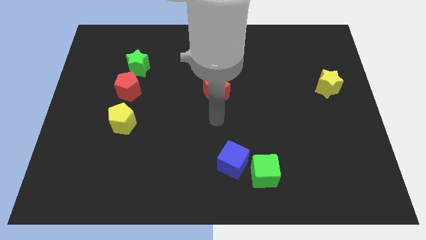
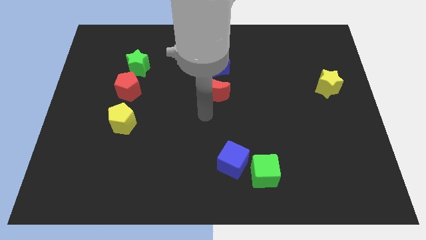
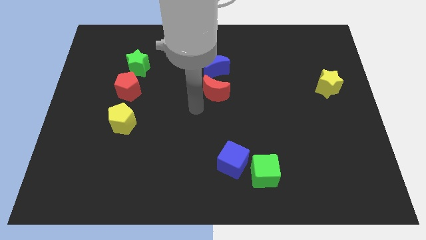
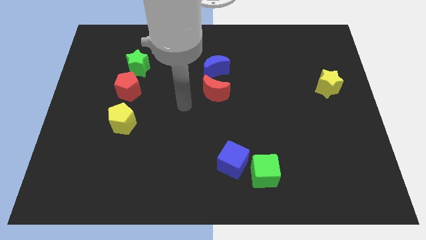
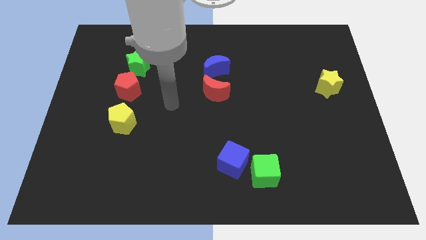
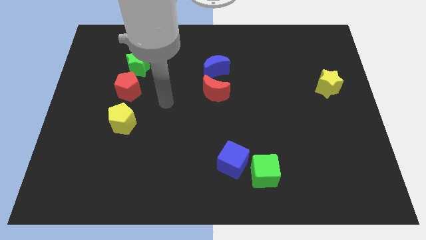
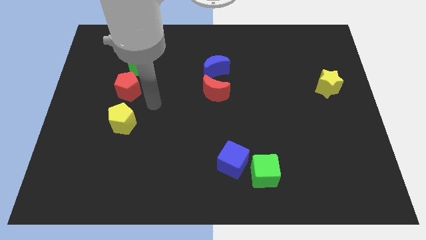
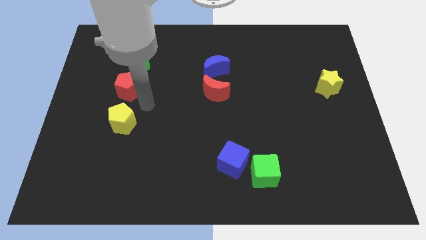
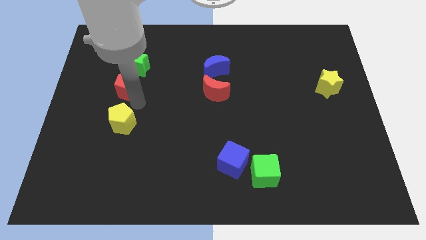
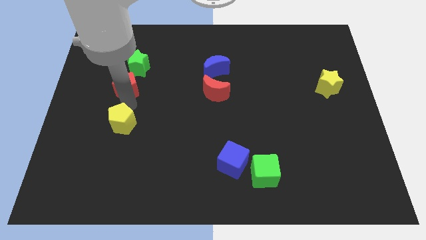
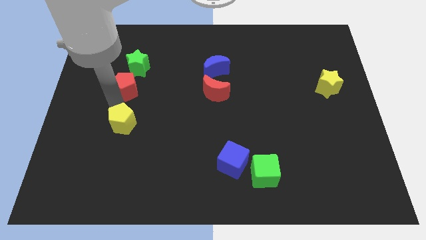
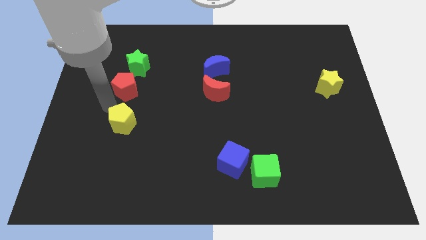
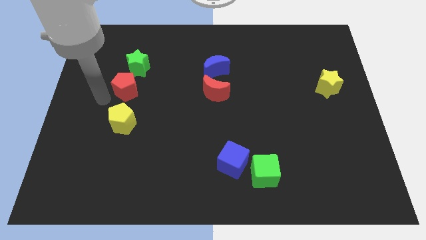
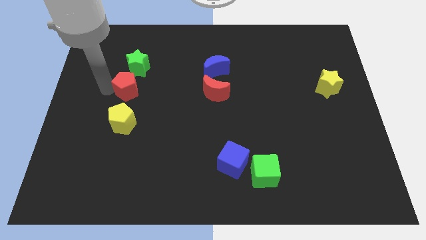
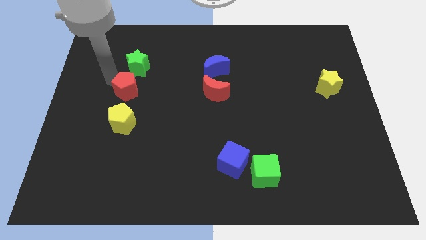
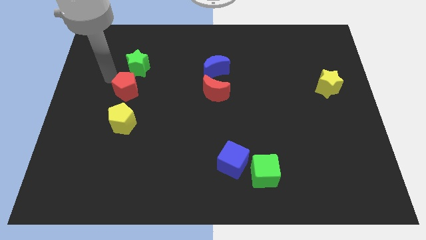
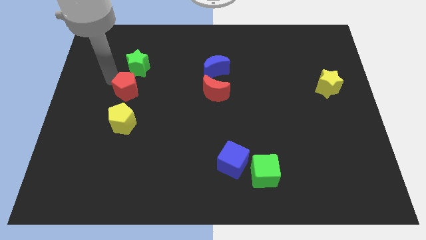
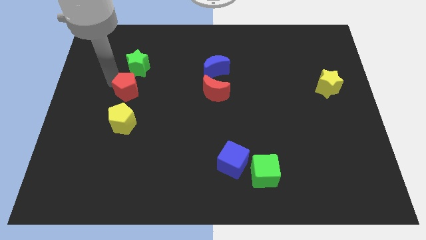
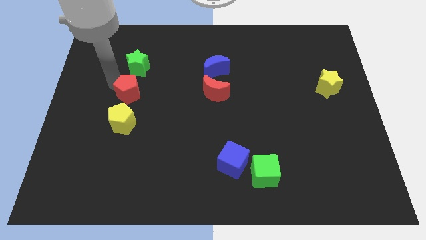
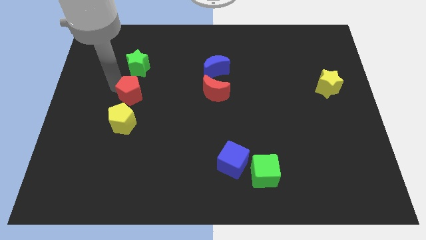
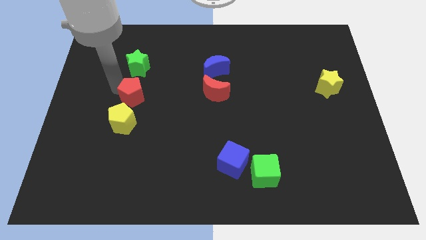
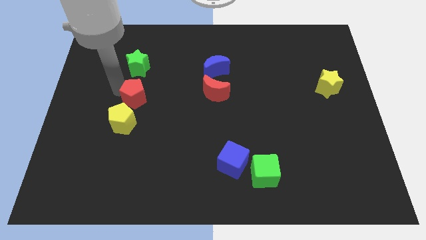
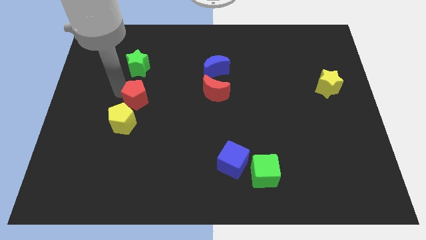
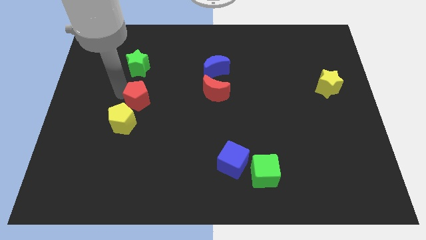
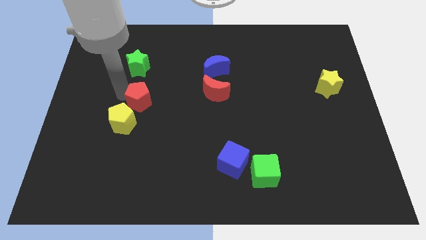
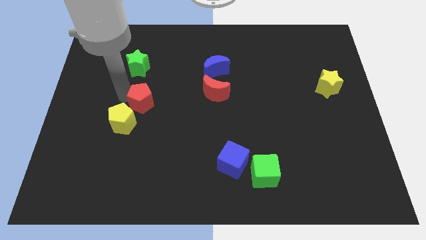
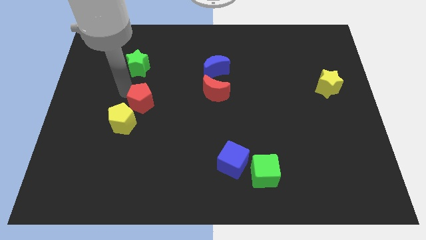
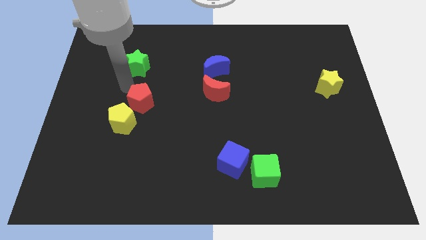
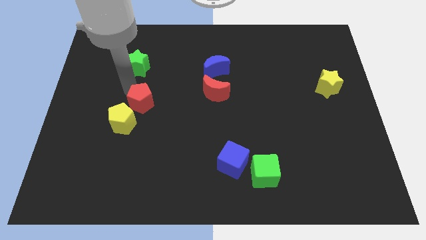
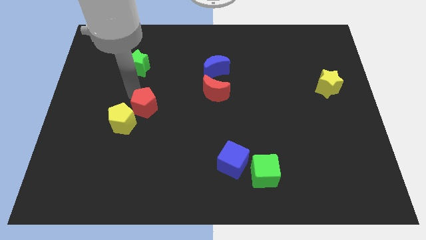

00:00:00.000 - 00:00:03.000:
move the red pentagon slightly downwards and to the right

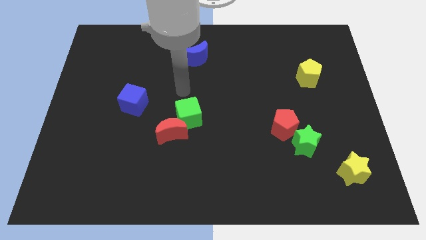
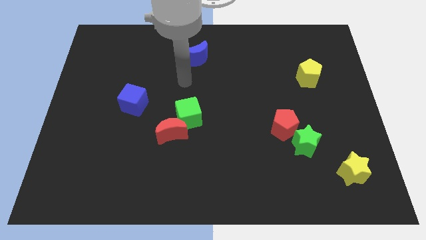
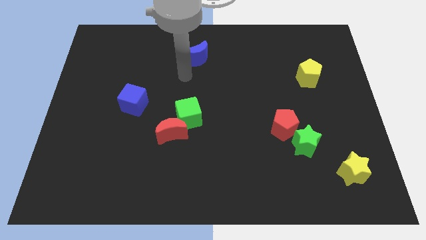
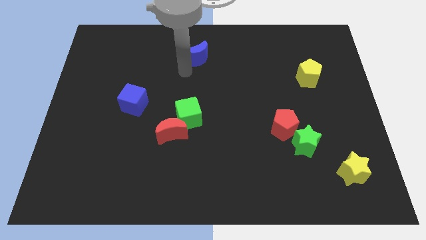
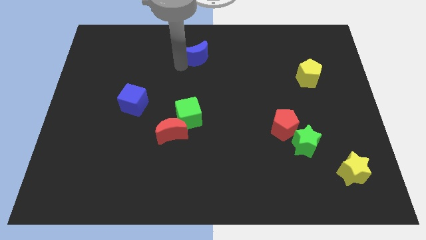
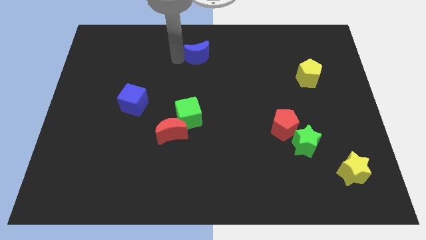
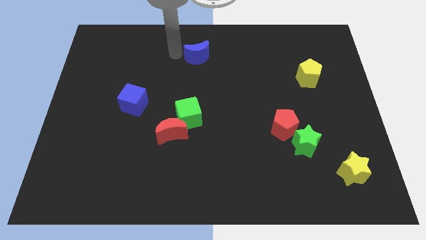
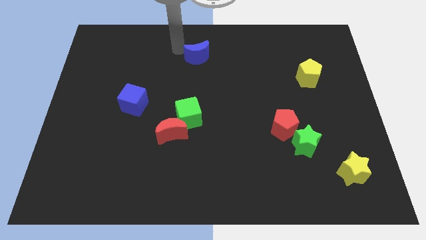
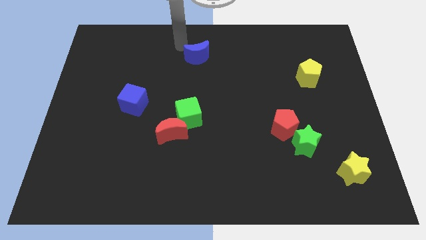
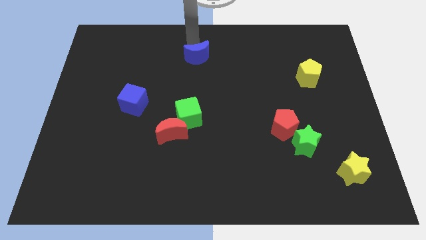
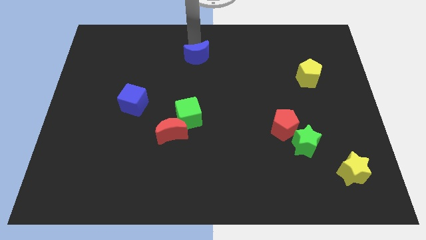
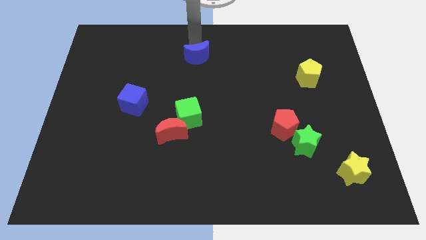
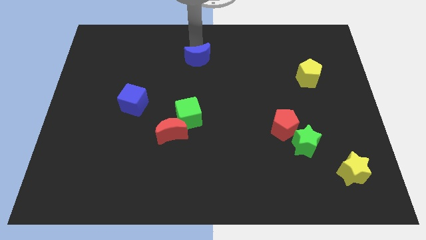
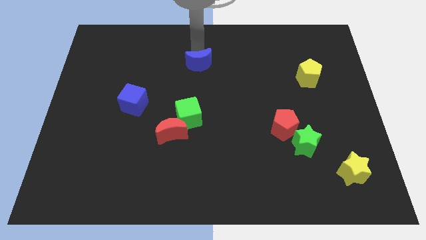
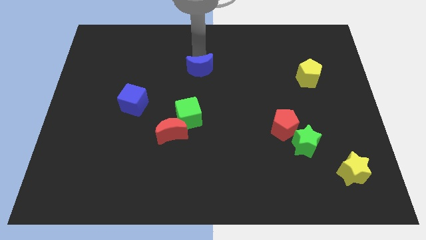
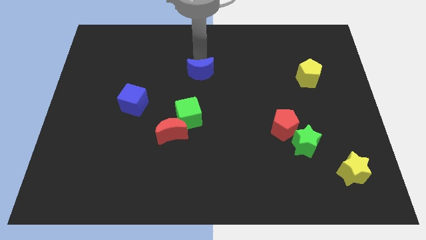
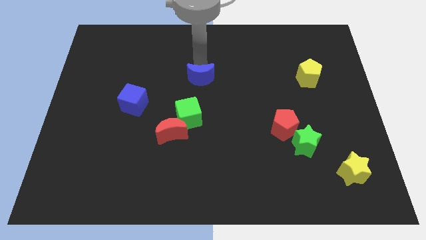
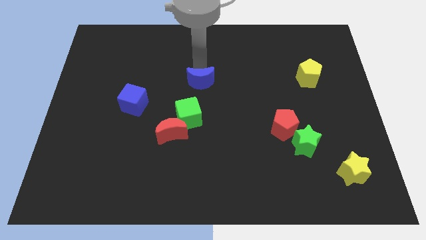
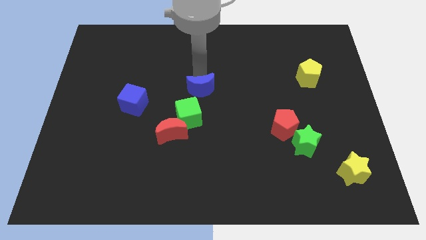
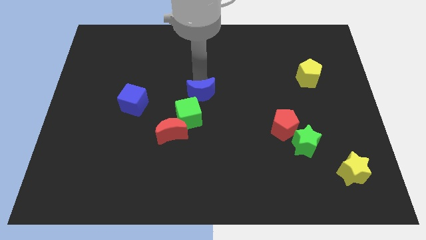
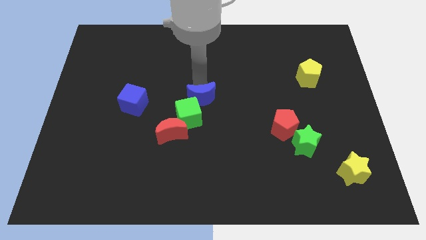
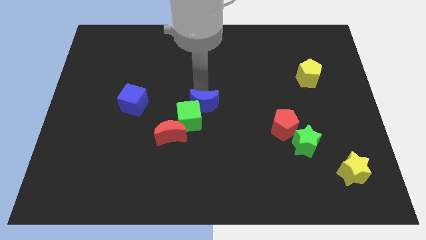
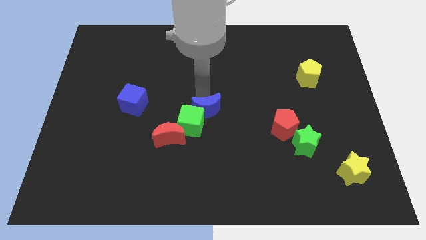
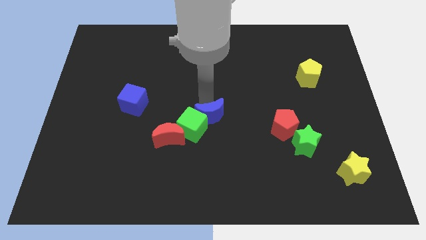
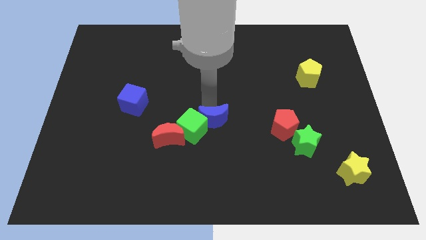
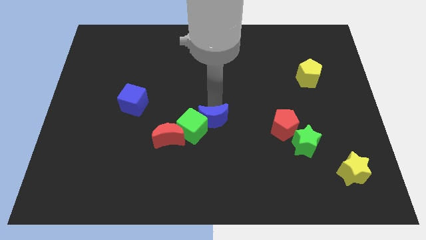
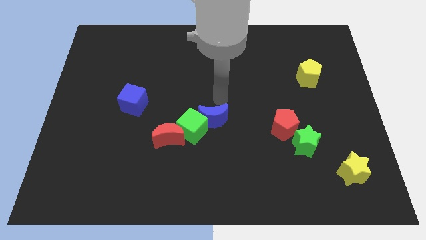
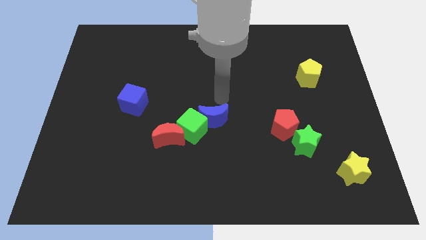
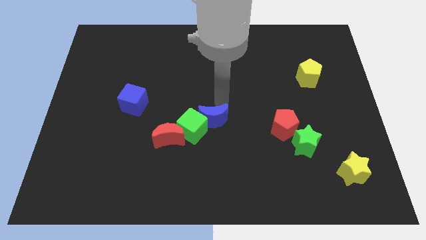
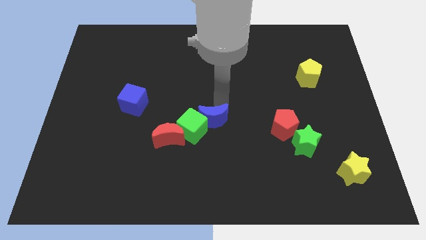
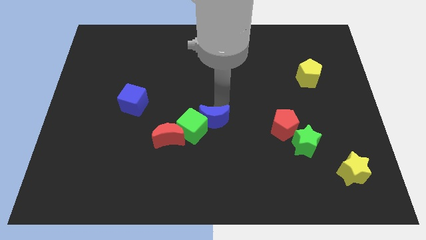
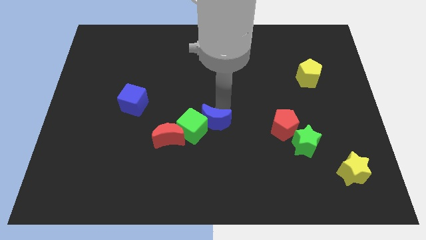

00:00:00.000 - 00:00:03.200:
push the blue moon down

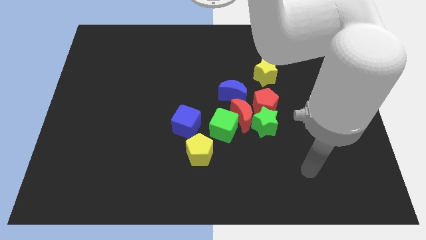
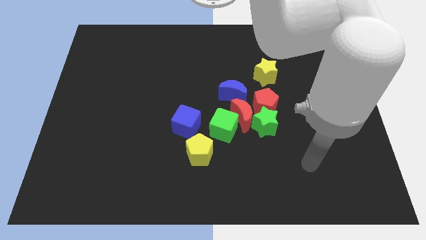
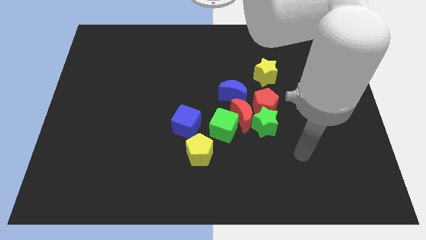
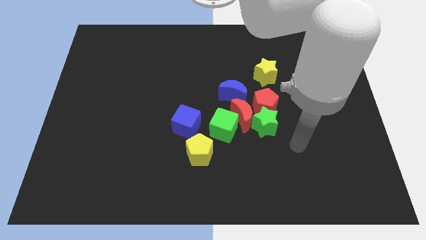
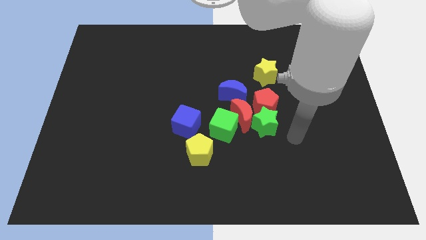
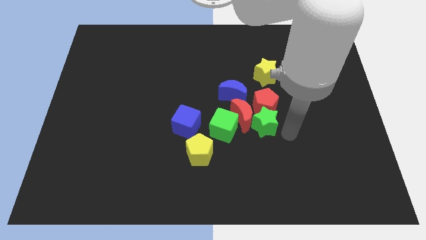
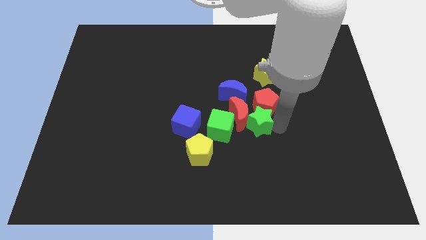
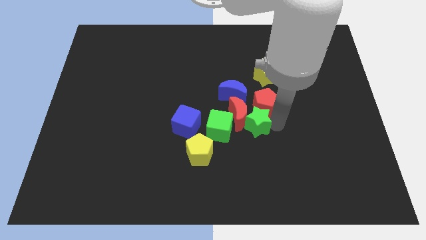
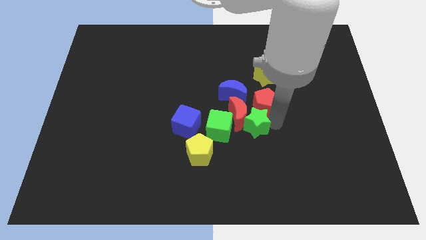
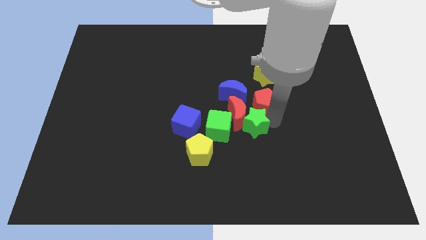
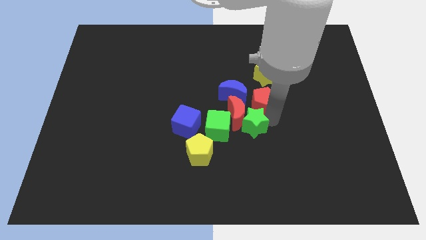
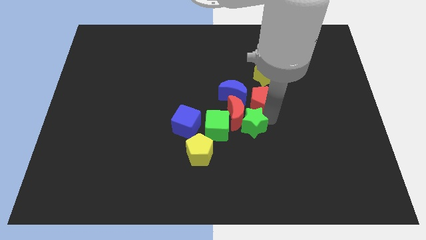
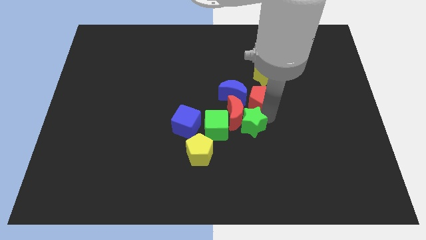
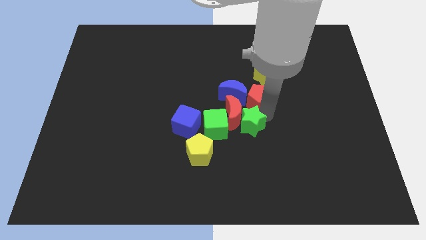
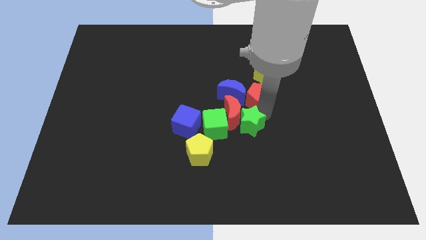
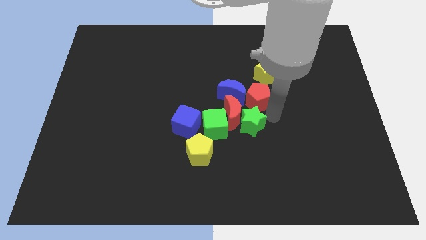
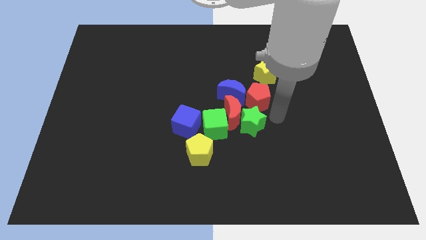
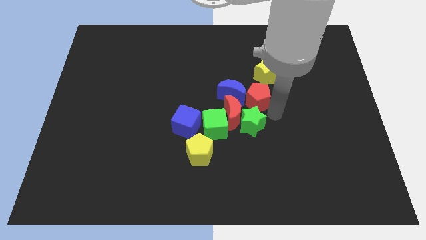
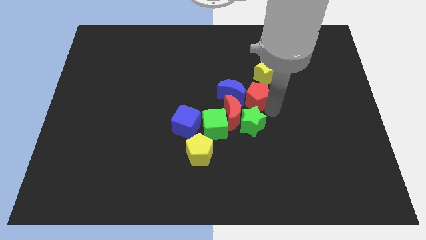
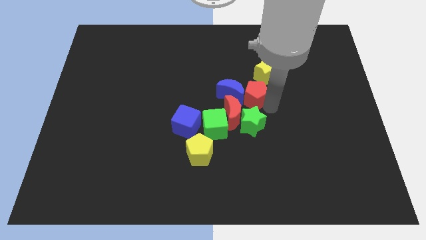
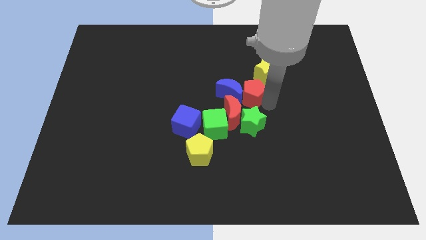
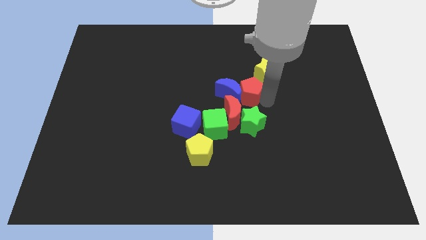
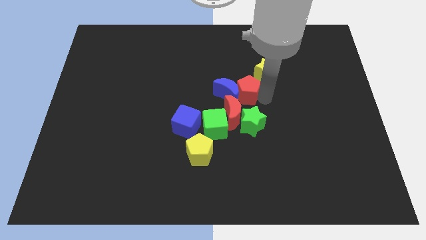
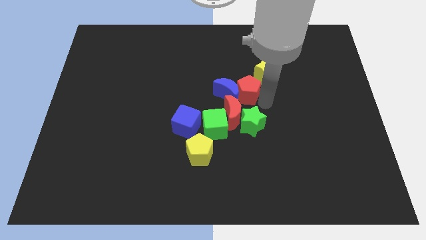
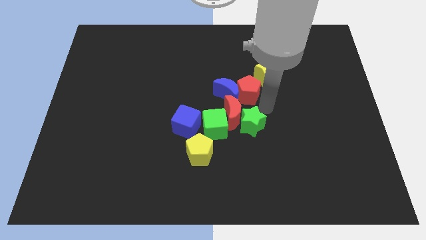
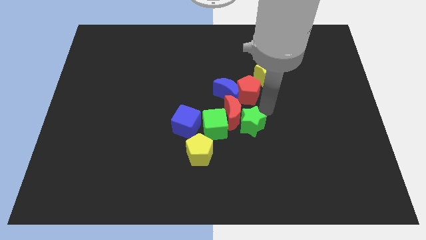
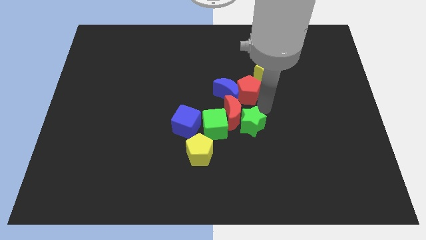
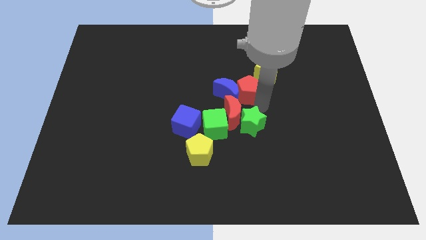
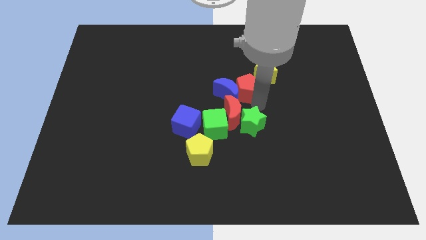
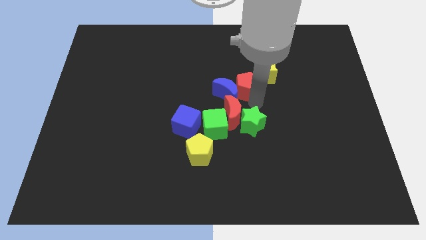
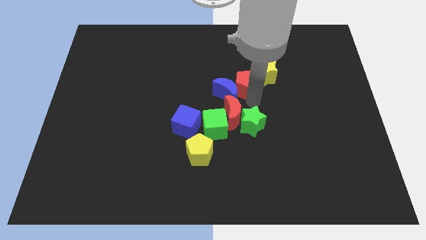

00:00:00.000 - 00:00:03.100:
slightly move the red pentagon up and then left
